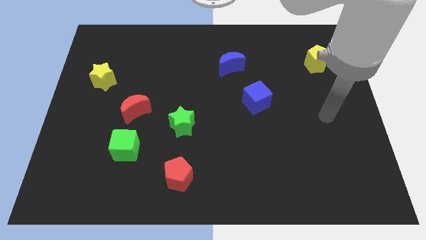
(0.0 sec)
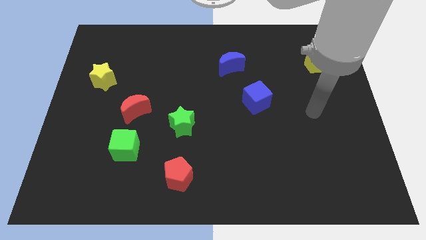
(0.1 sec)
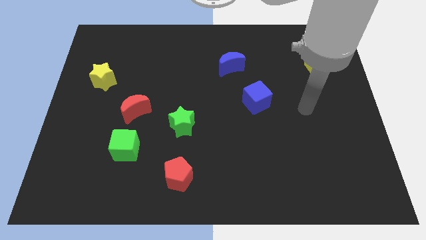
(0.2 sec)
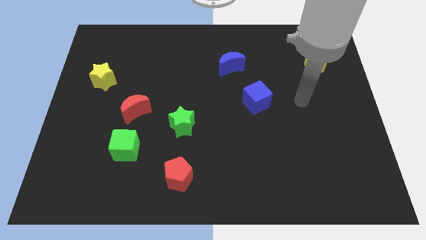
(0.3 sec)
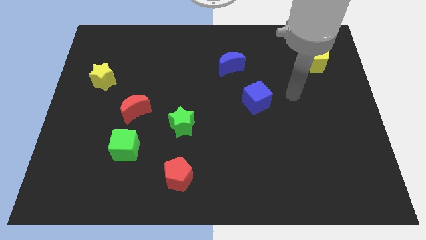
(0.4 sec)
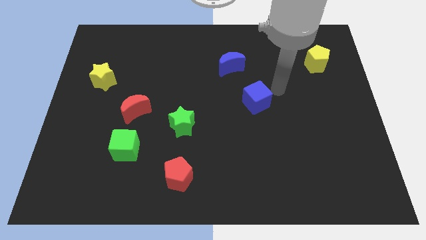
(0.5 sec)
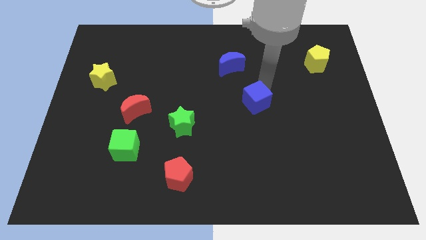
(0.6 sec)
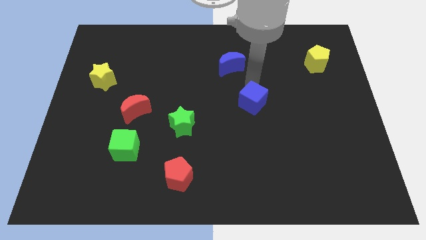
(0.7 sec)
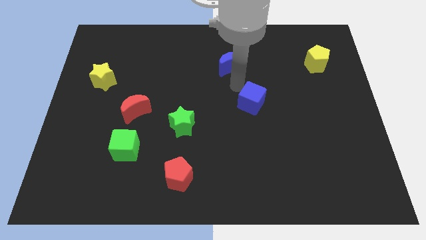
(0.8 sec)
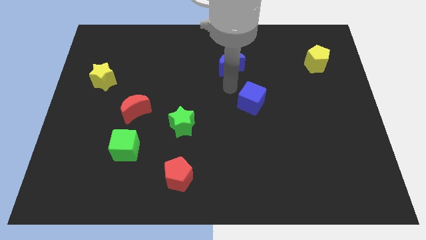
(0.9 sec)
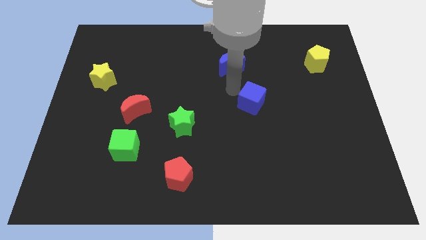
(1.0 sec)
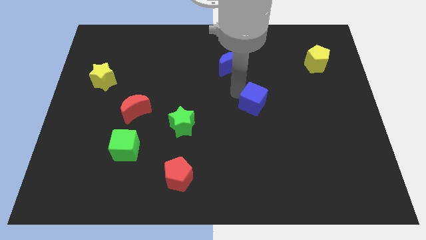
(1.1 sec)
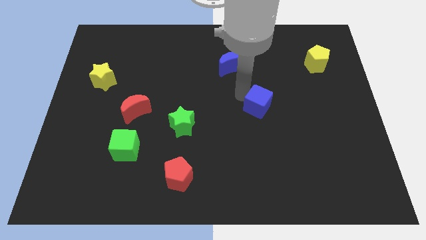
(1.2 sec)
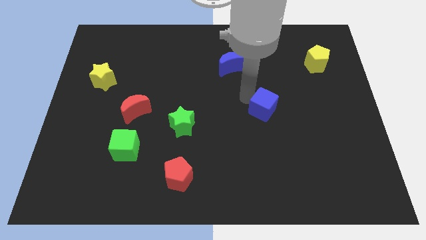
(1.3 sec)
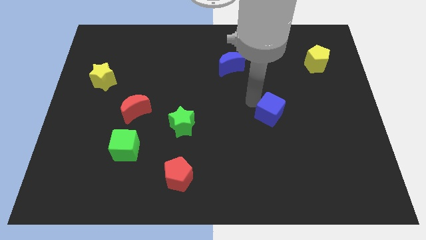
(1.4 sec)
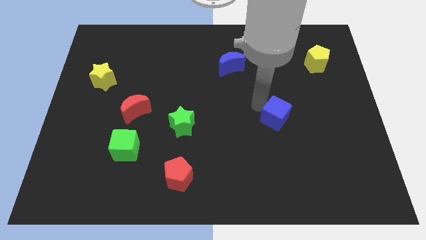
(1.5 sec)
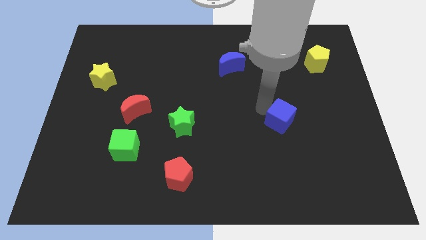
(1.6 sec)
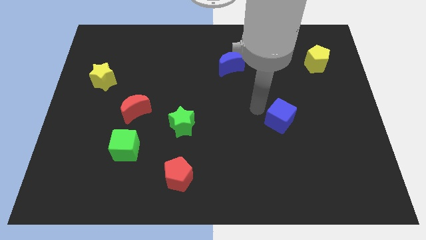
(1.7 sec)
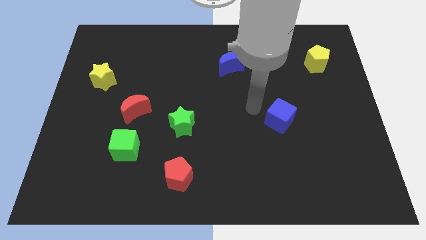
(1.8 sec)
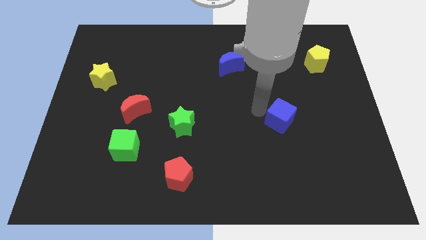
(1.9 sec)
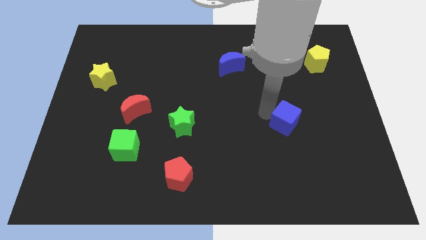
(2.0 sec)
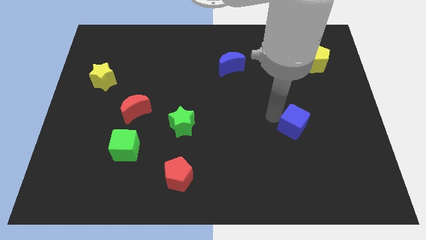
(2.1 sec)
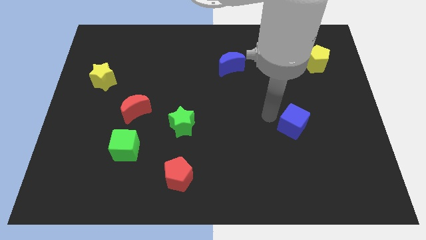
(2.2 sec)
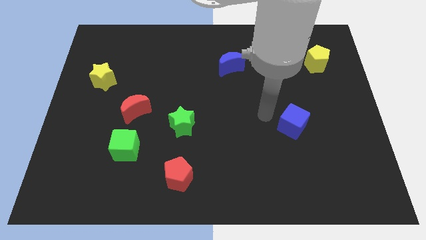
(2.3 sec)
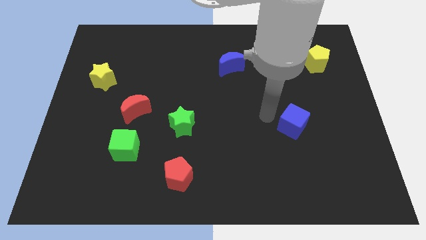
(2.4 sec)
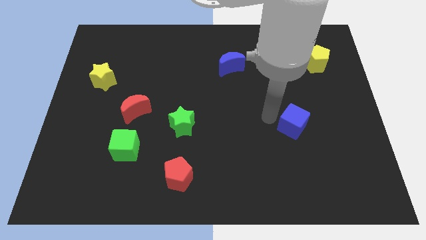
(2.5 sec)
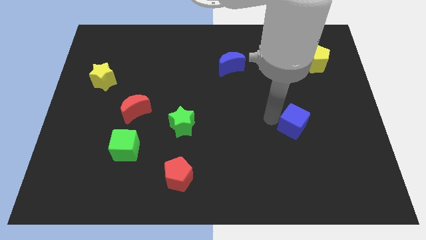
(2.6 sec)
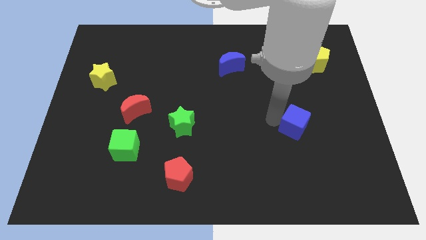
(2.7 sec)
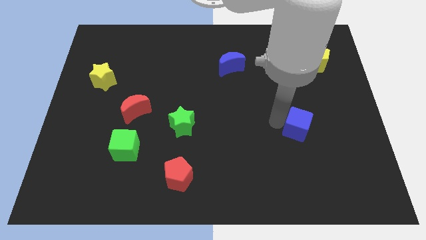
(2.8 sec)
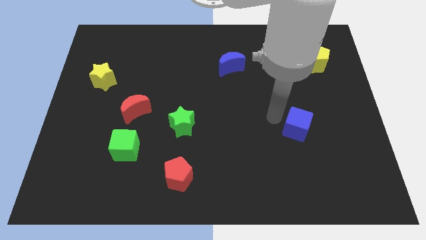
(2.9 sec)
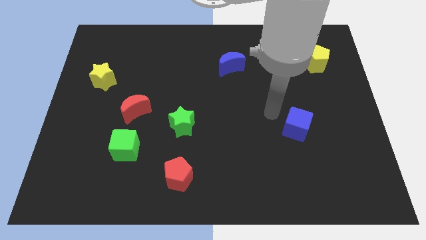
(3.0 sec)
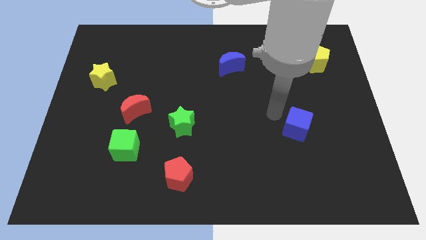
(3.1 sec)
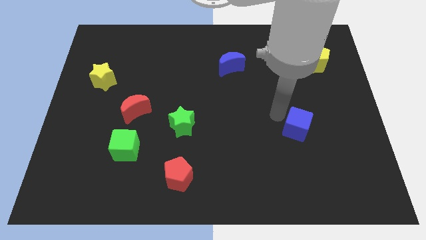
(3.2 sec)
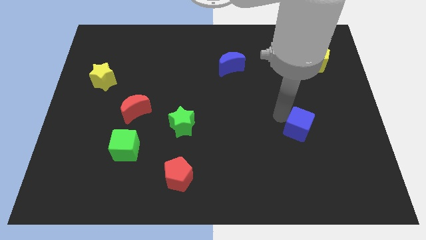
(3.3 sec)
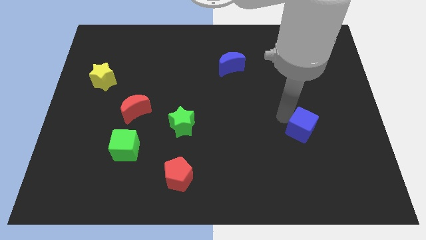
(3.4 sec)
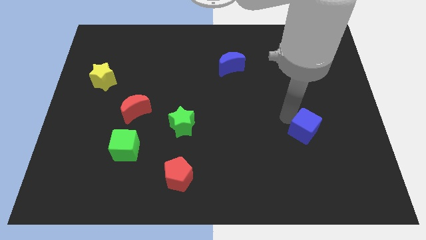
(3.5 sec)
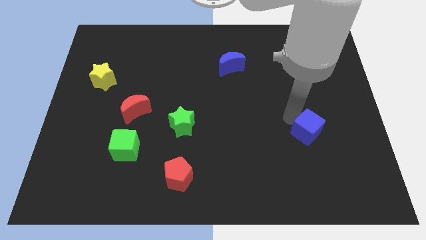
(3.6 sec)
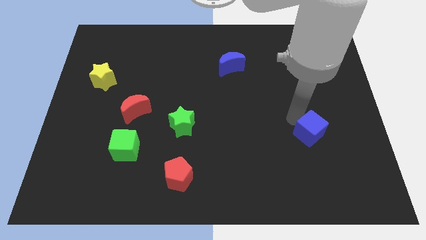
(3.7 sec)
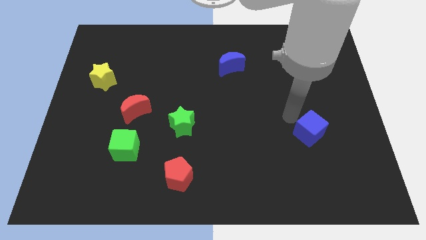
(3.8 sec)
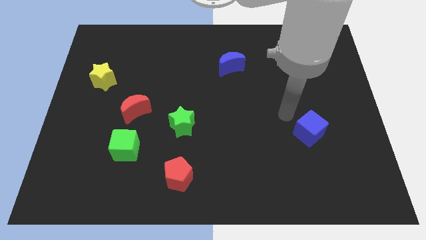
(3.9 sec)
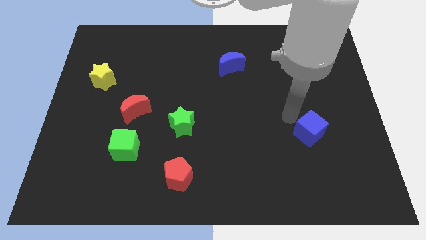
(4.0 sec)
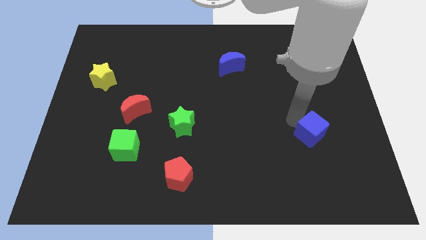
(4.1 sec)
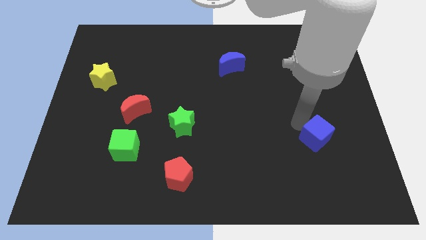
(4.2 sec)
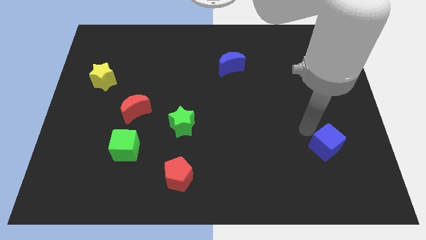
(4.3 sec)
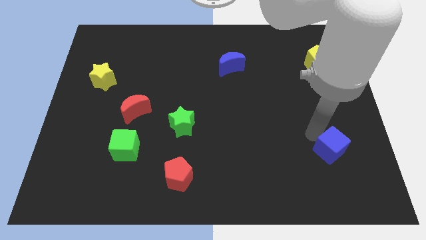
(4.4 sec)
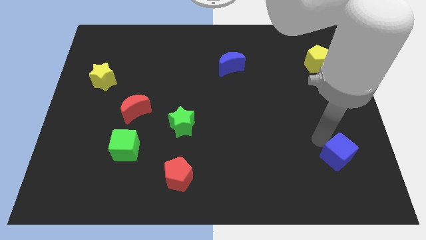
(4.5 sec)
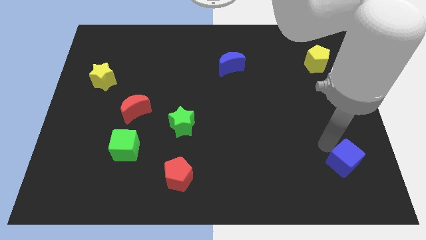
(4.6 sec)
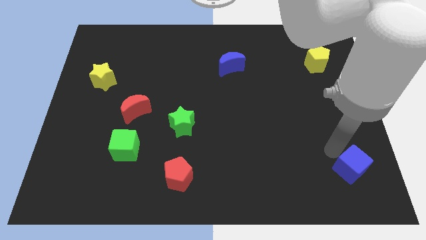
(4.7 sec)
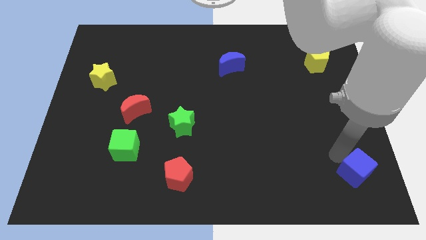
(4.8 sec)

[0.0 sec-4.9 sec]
move the blue cube to the bottom right corner

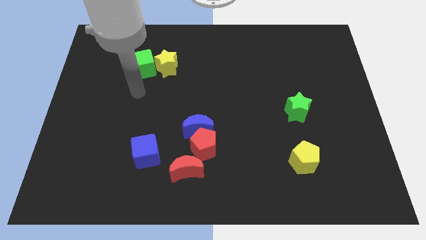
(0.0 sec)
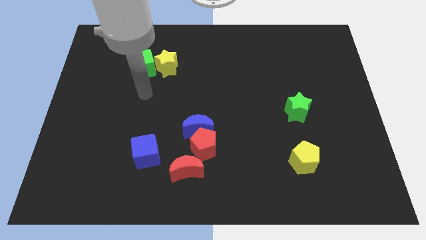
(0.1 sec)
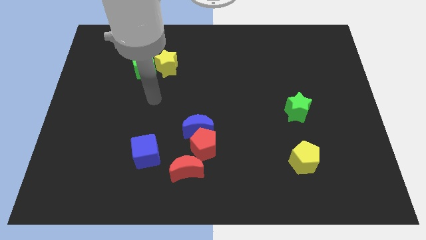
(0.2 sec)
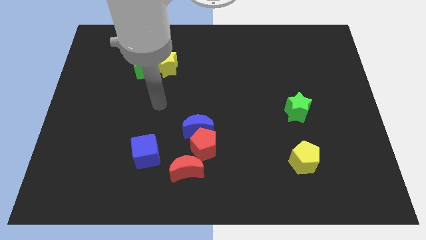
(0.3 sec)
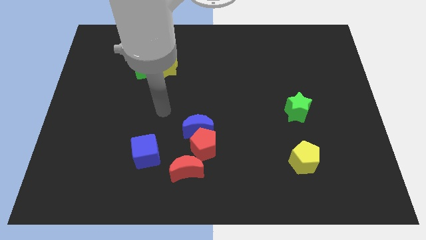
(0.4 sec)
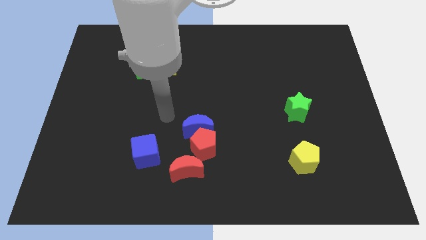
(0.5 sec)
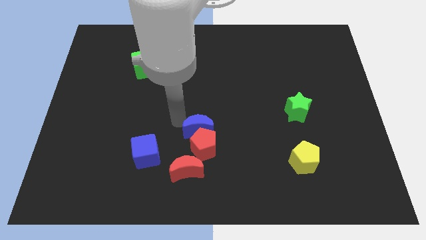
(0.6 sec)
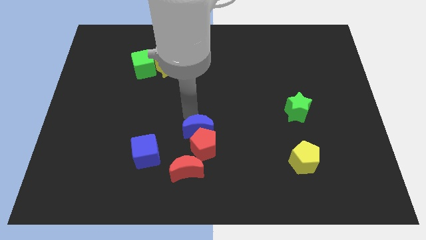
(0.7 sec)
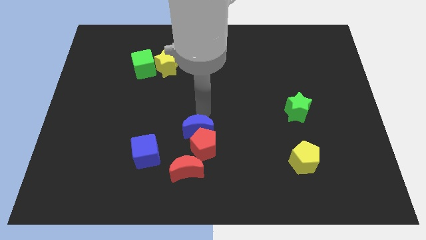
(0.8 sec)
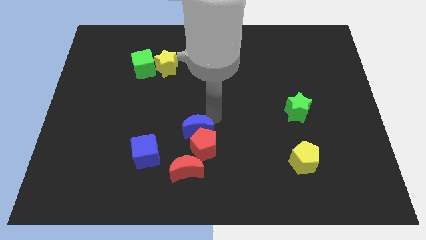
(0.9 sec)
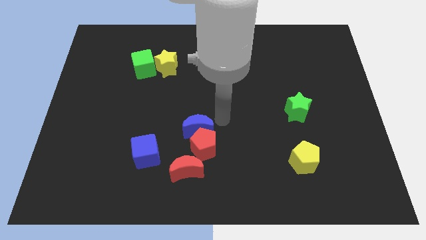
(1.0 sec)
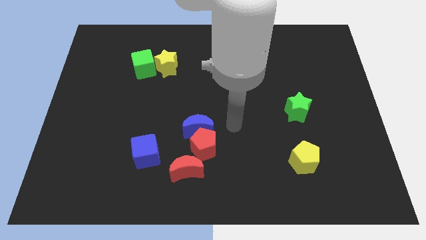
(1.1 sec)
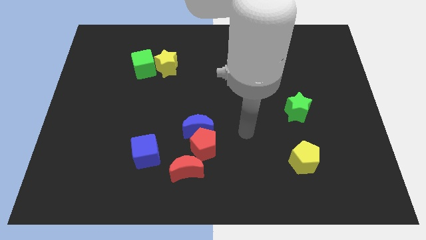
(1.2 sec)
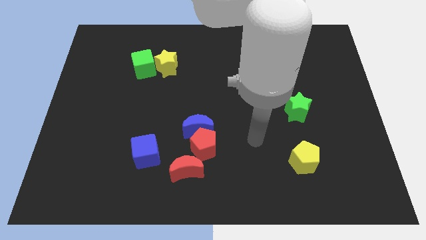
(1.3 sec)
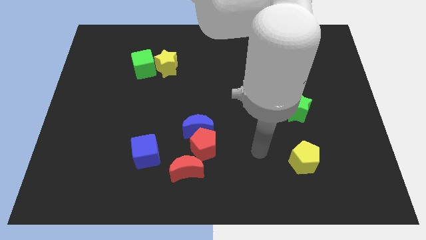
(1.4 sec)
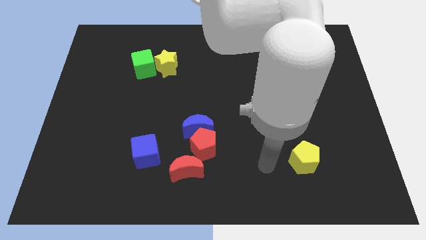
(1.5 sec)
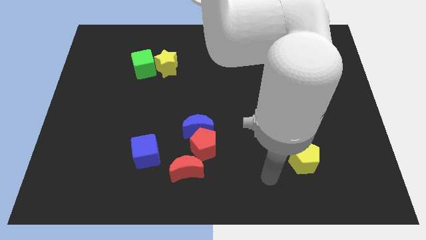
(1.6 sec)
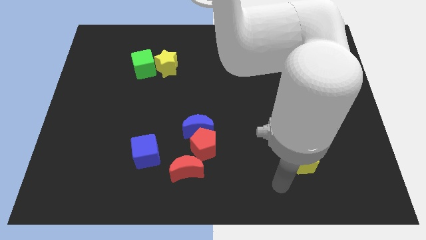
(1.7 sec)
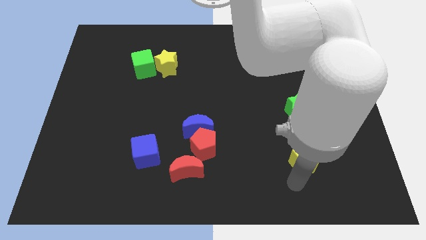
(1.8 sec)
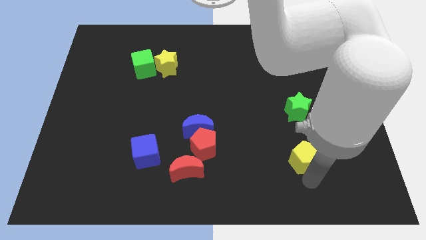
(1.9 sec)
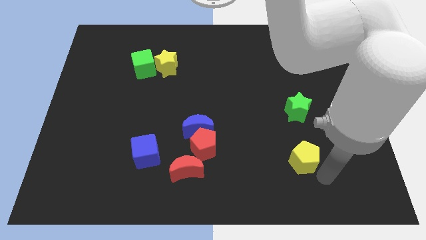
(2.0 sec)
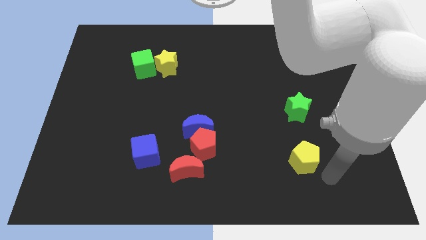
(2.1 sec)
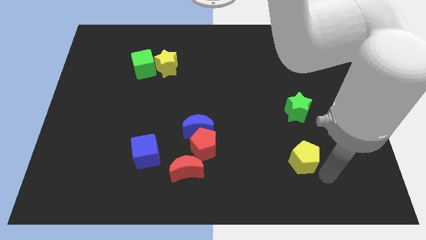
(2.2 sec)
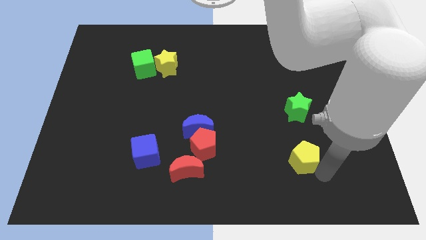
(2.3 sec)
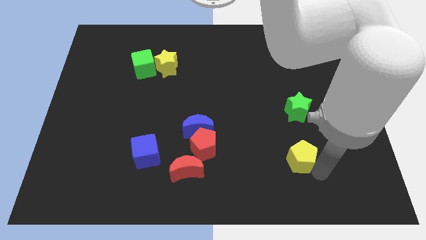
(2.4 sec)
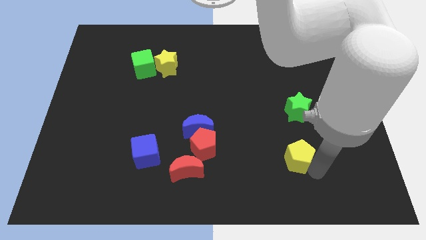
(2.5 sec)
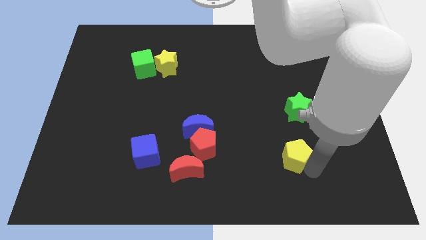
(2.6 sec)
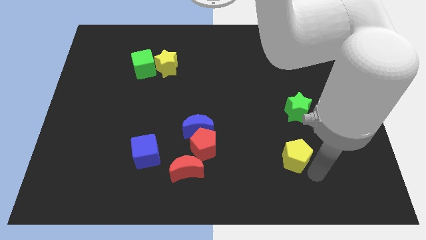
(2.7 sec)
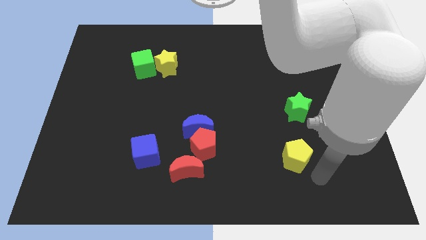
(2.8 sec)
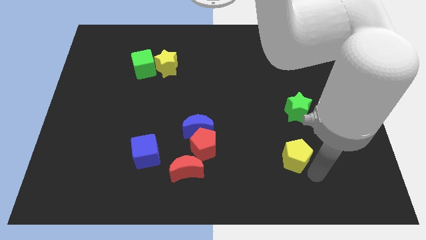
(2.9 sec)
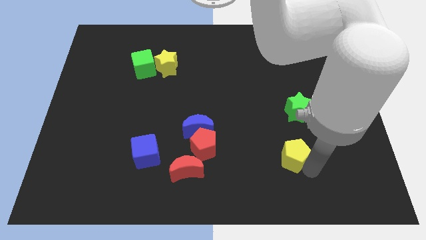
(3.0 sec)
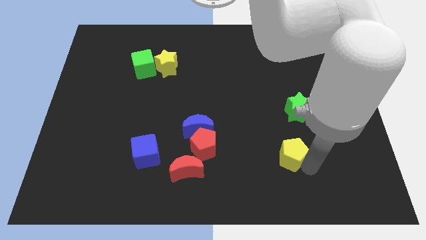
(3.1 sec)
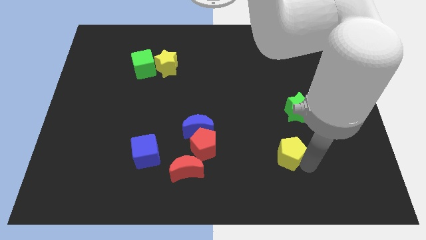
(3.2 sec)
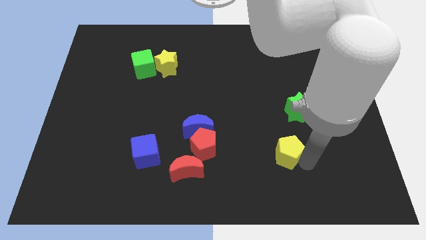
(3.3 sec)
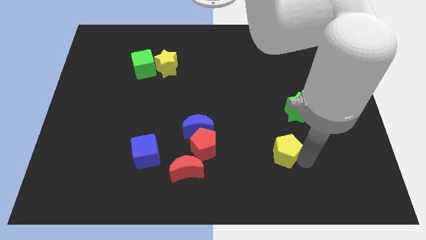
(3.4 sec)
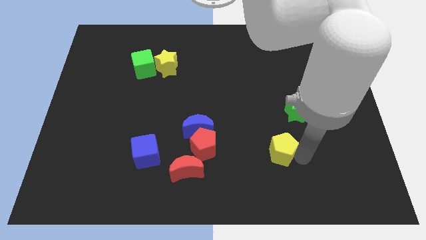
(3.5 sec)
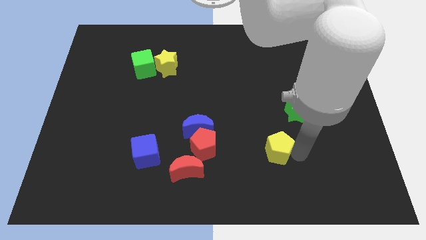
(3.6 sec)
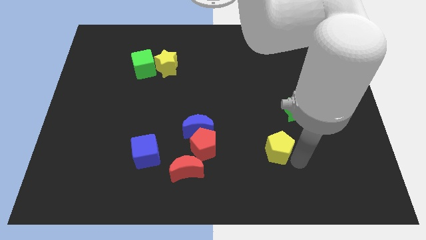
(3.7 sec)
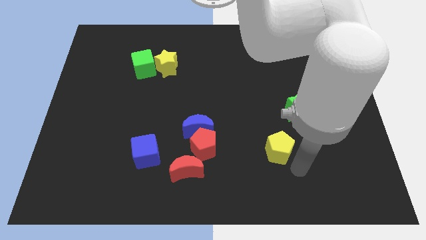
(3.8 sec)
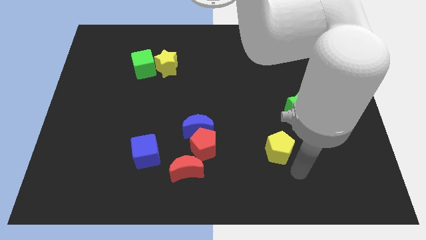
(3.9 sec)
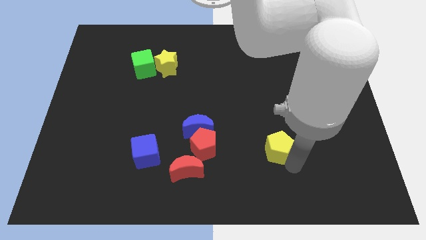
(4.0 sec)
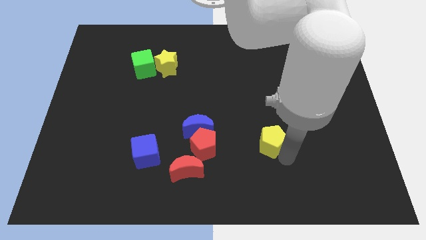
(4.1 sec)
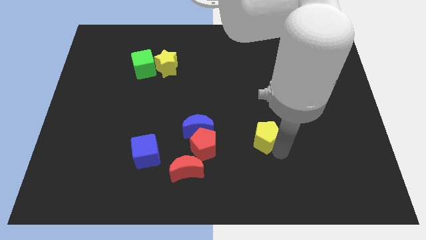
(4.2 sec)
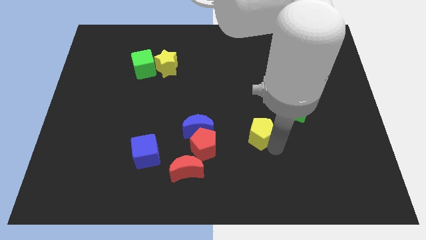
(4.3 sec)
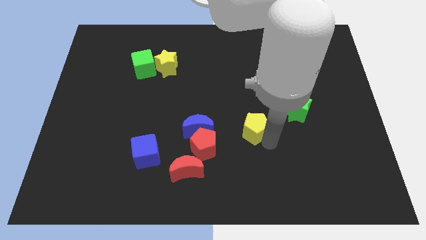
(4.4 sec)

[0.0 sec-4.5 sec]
push the yellow pentagon to the middle of the board
